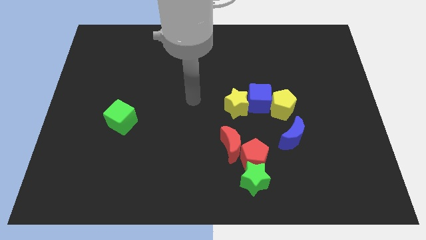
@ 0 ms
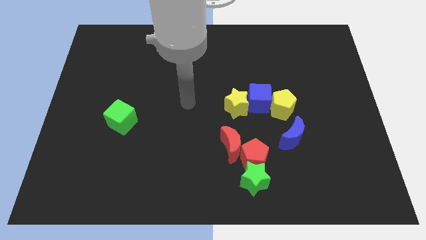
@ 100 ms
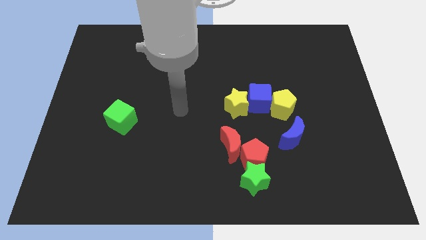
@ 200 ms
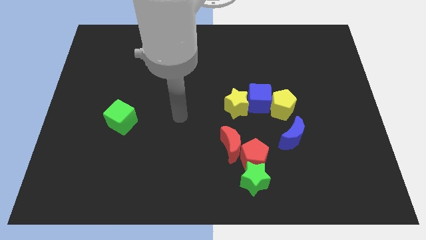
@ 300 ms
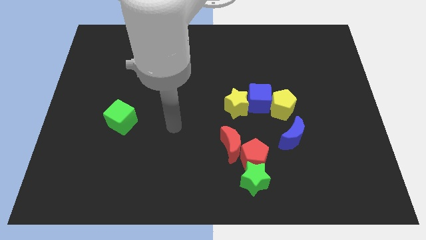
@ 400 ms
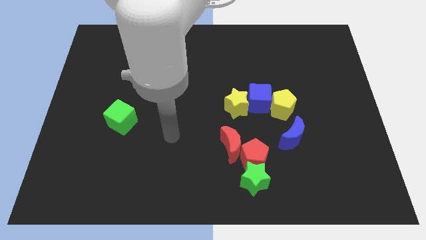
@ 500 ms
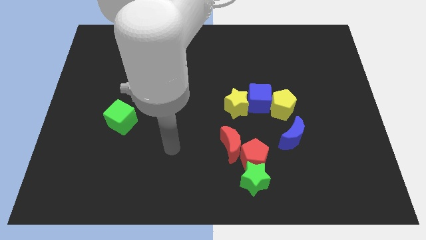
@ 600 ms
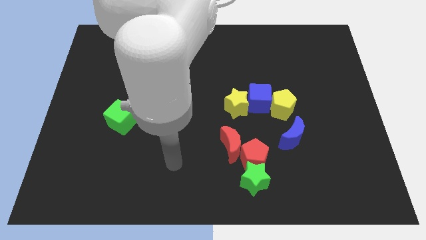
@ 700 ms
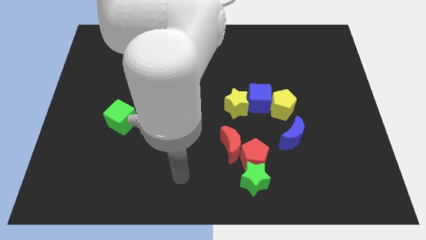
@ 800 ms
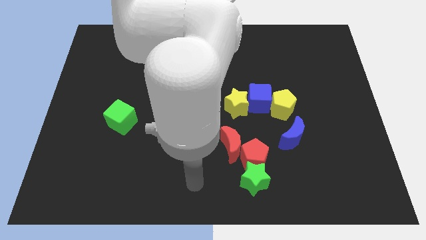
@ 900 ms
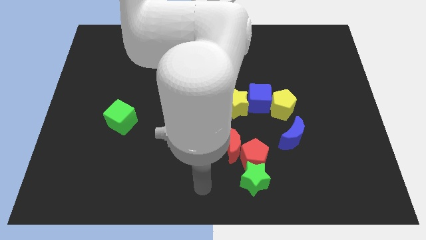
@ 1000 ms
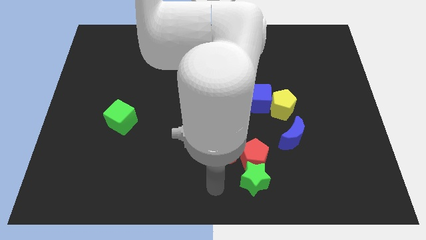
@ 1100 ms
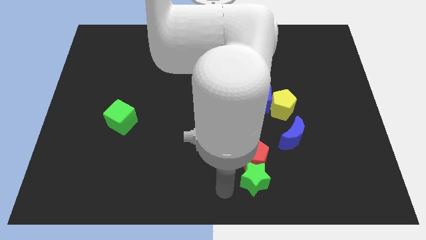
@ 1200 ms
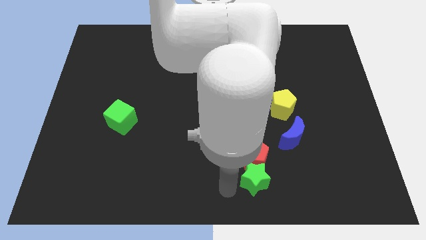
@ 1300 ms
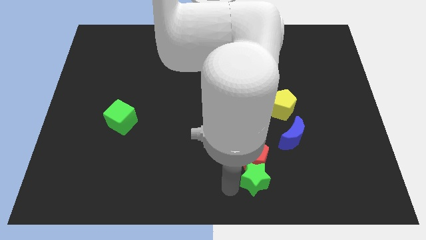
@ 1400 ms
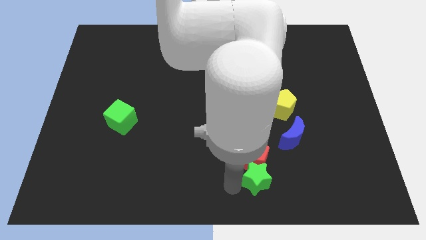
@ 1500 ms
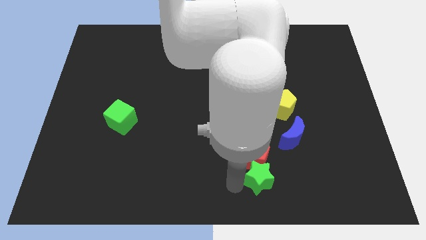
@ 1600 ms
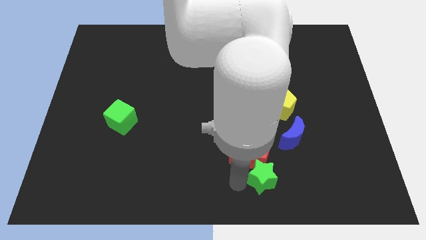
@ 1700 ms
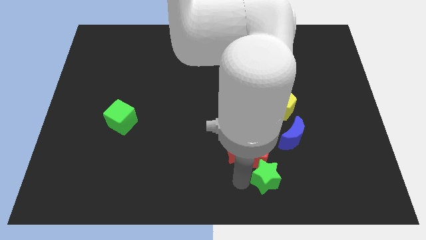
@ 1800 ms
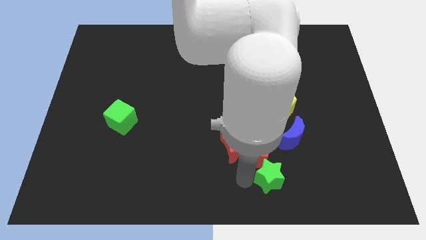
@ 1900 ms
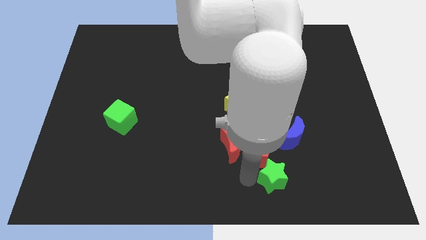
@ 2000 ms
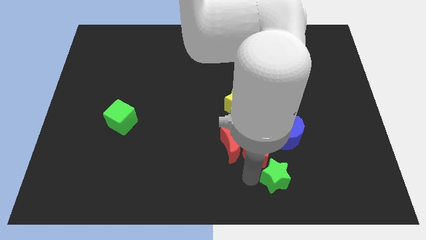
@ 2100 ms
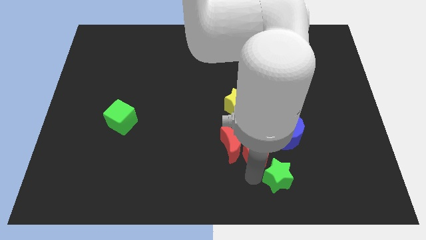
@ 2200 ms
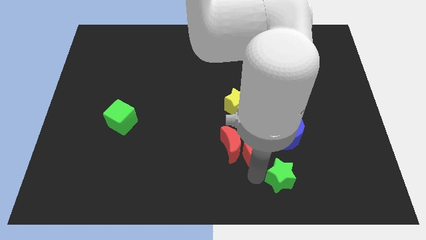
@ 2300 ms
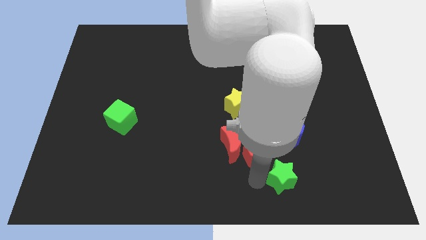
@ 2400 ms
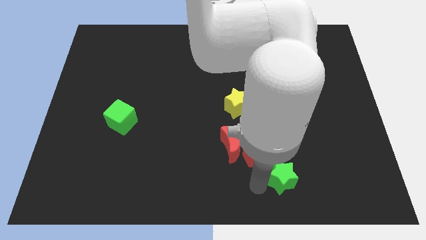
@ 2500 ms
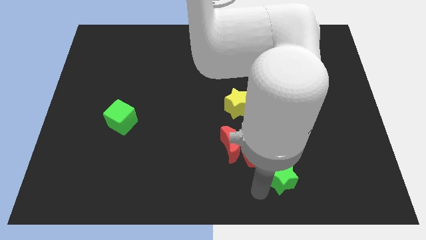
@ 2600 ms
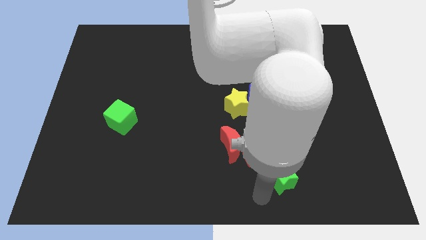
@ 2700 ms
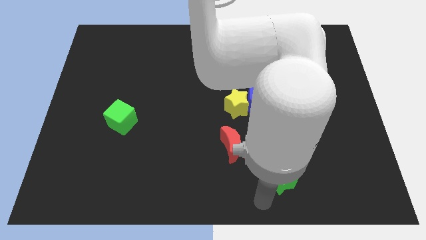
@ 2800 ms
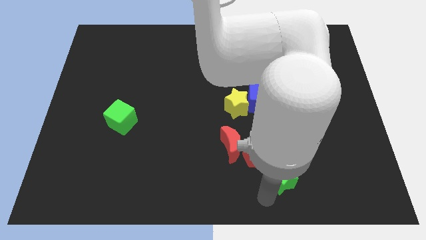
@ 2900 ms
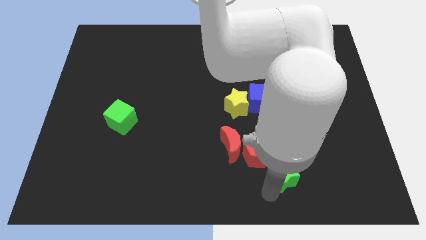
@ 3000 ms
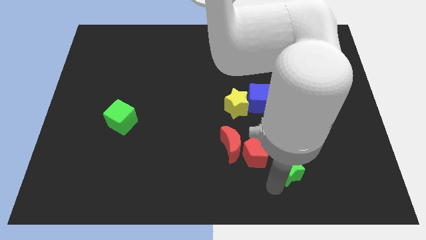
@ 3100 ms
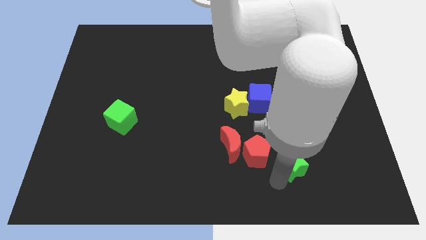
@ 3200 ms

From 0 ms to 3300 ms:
slightly move the green star up and then right

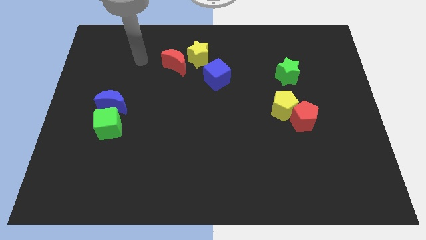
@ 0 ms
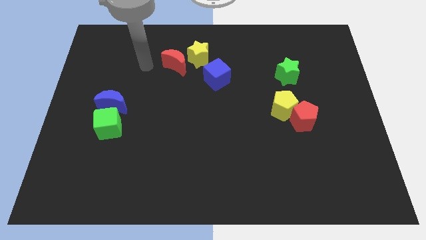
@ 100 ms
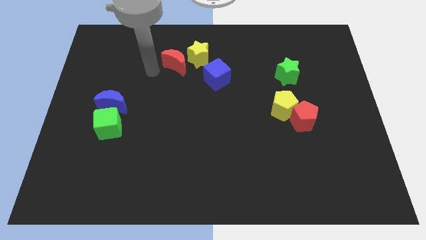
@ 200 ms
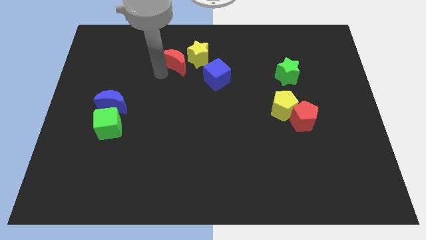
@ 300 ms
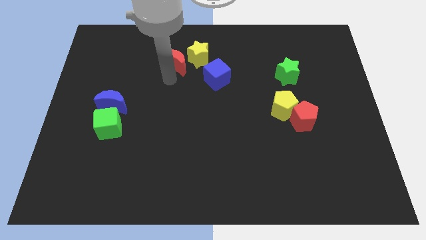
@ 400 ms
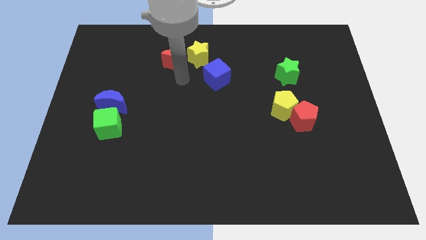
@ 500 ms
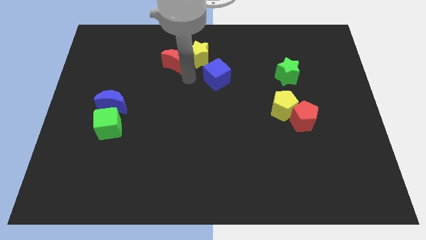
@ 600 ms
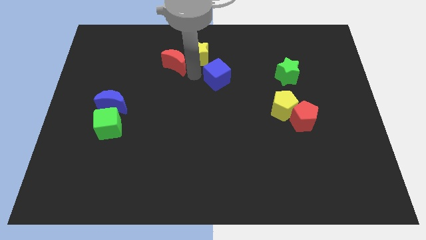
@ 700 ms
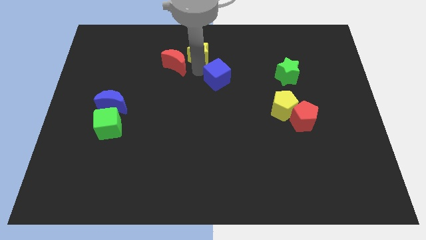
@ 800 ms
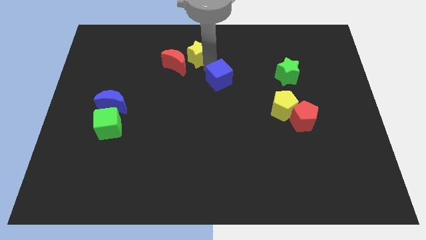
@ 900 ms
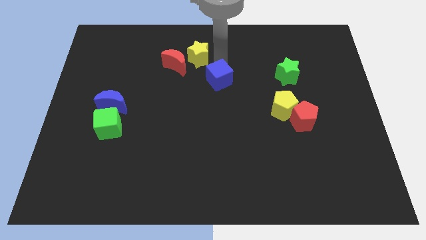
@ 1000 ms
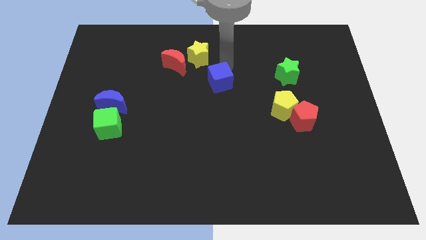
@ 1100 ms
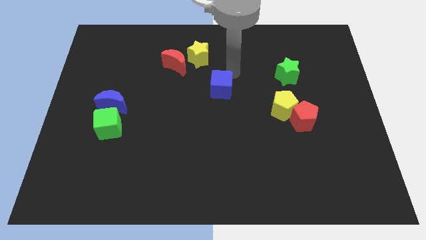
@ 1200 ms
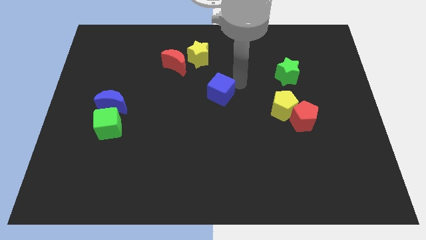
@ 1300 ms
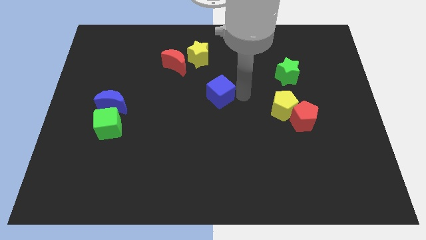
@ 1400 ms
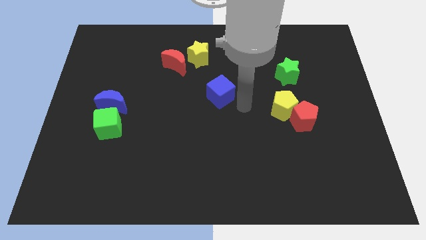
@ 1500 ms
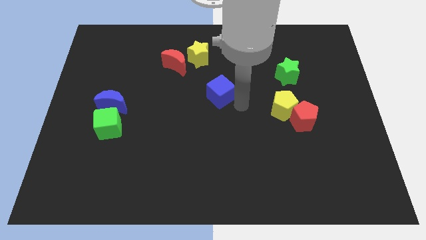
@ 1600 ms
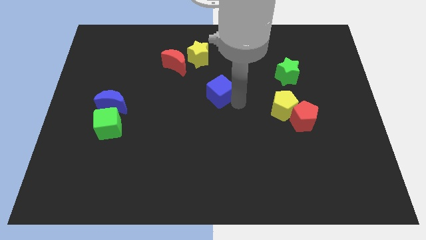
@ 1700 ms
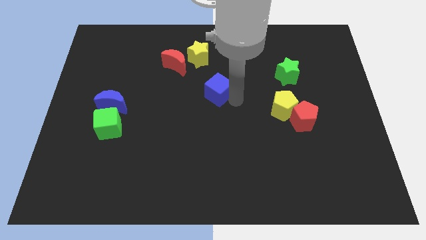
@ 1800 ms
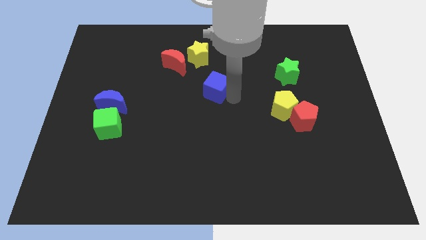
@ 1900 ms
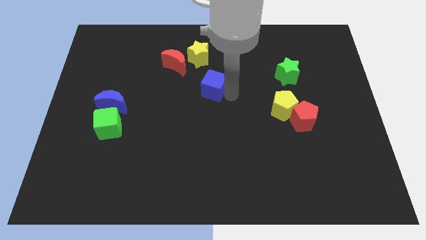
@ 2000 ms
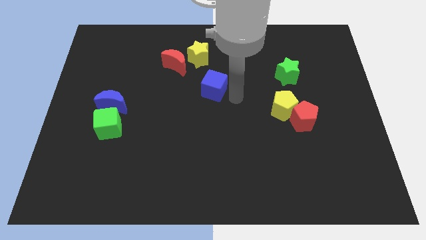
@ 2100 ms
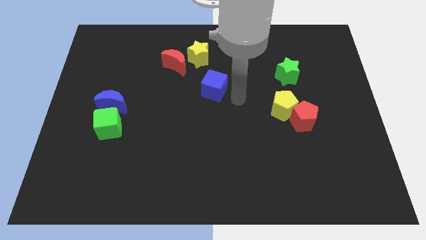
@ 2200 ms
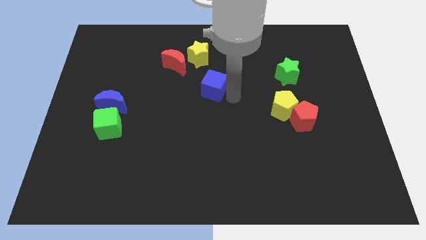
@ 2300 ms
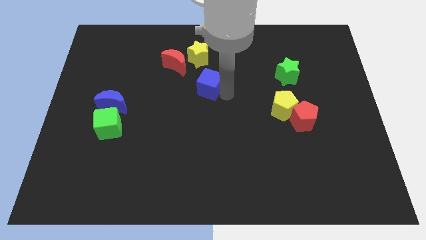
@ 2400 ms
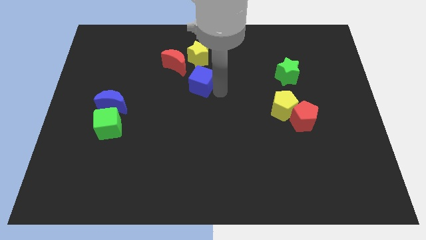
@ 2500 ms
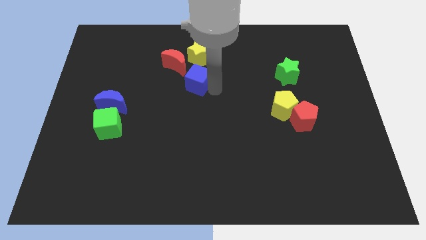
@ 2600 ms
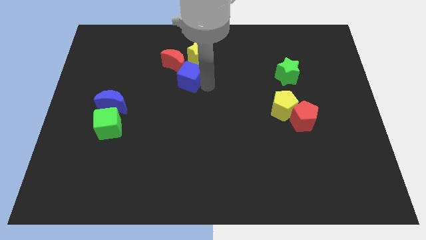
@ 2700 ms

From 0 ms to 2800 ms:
slide the blue cube a little left

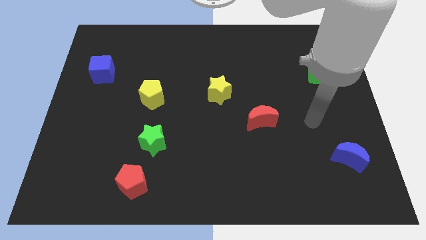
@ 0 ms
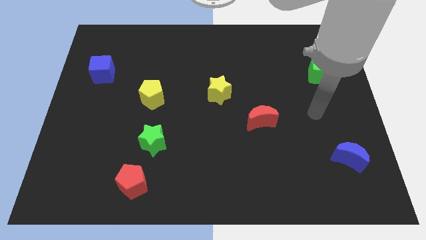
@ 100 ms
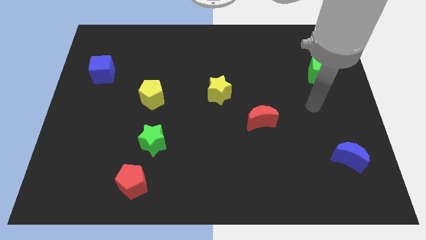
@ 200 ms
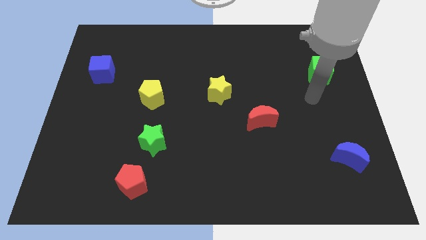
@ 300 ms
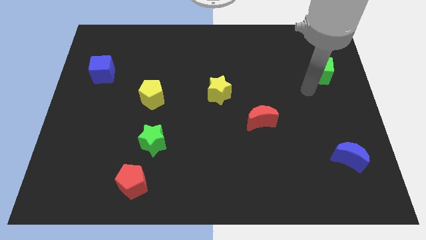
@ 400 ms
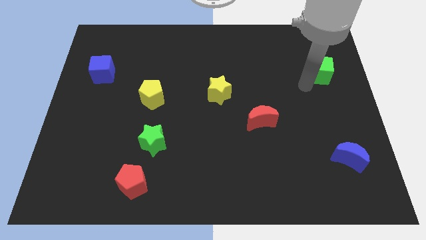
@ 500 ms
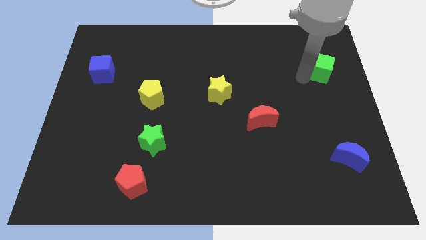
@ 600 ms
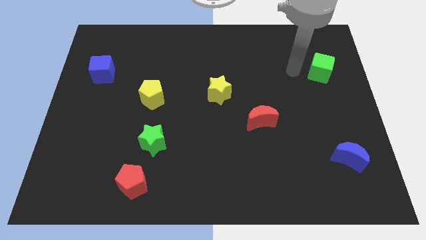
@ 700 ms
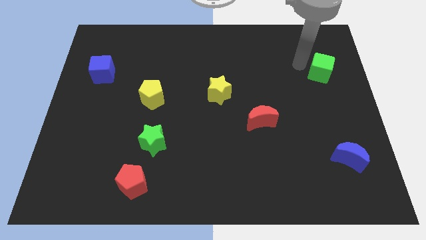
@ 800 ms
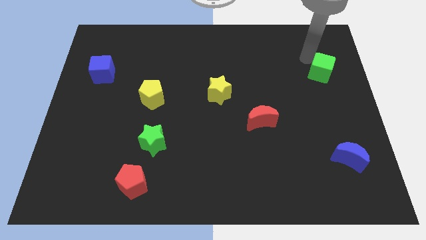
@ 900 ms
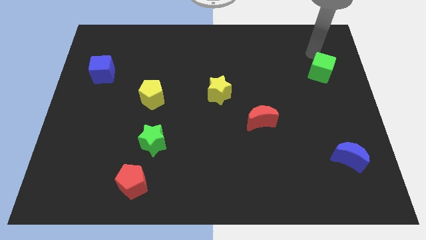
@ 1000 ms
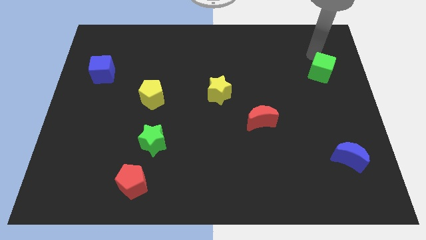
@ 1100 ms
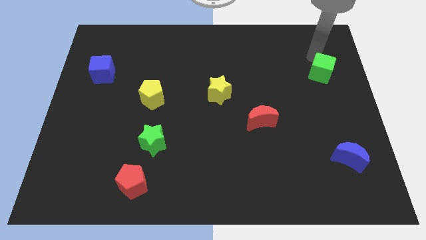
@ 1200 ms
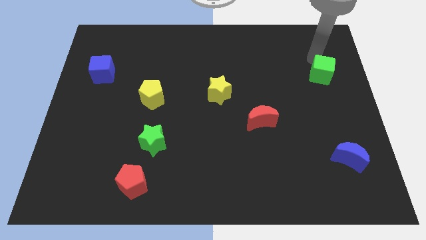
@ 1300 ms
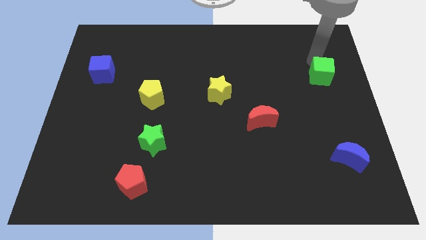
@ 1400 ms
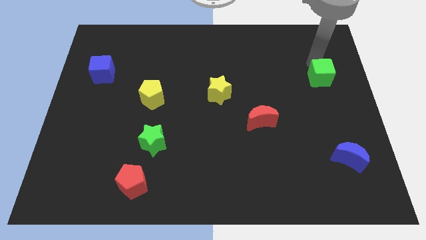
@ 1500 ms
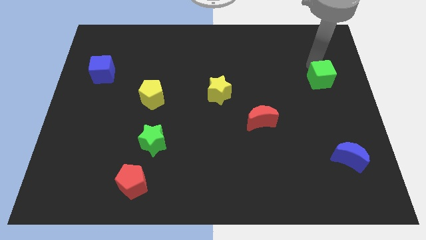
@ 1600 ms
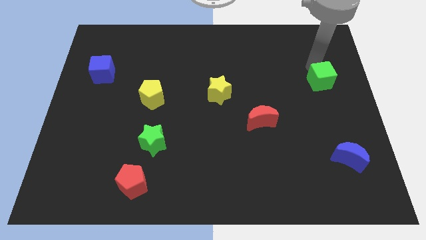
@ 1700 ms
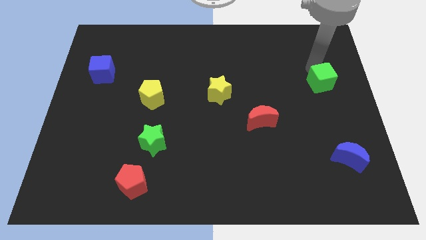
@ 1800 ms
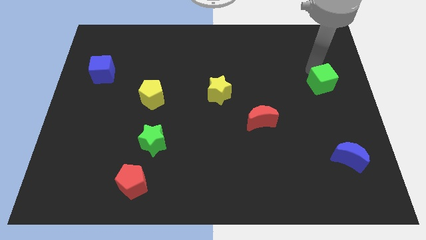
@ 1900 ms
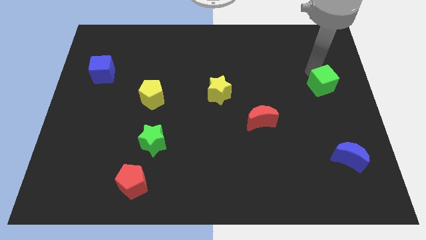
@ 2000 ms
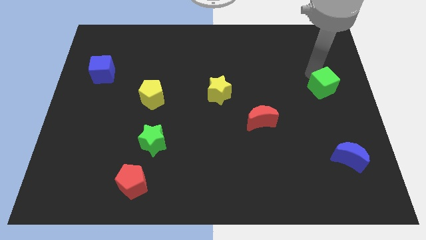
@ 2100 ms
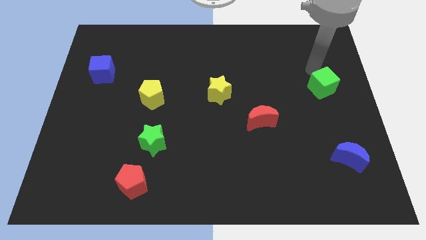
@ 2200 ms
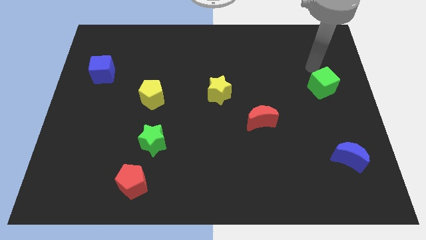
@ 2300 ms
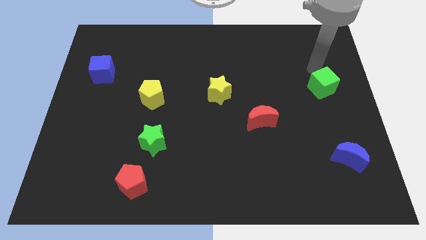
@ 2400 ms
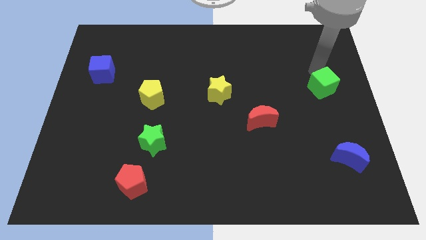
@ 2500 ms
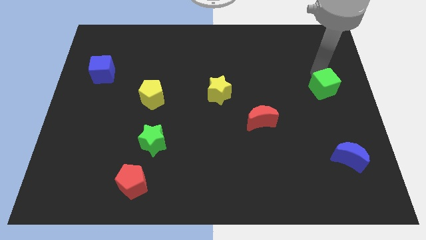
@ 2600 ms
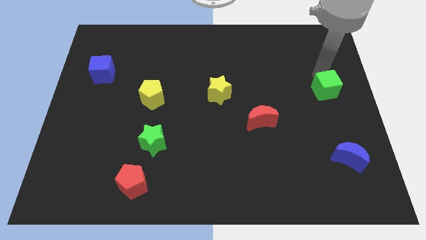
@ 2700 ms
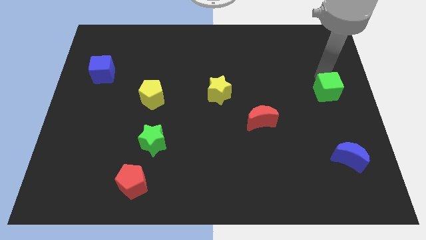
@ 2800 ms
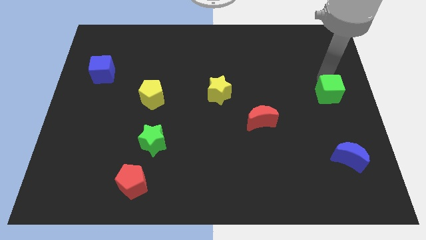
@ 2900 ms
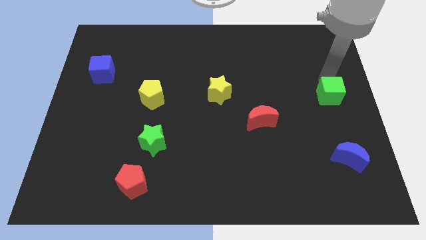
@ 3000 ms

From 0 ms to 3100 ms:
slightly move the green cube down
